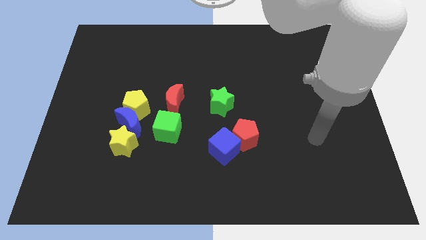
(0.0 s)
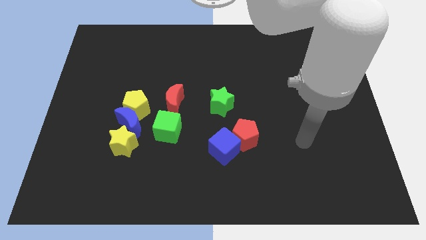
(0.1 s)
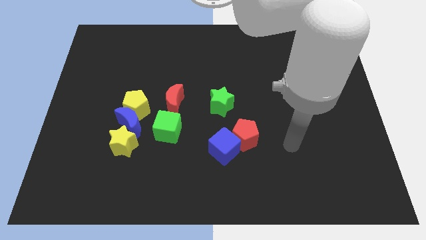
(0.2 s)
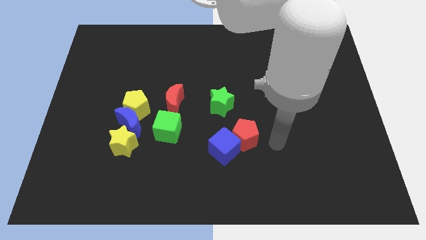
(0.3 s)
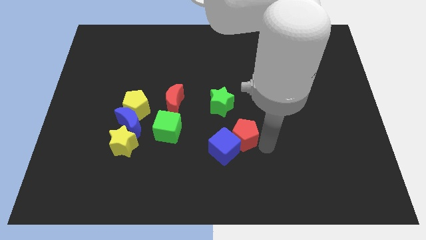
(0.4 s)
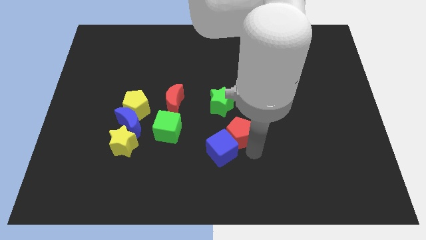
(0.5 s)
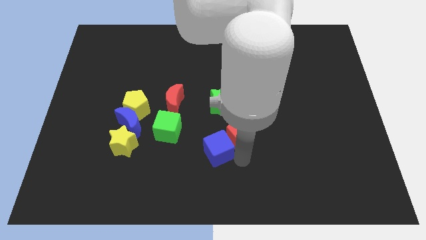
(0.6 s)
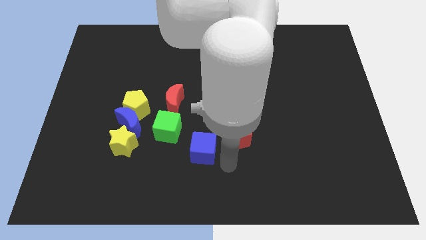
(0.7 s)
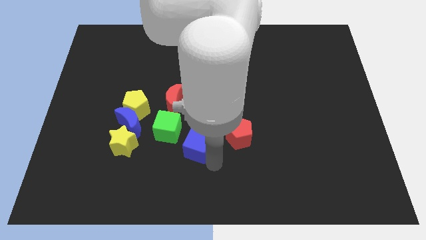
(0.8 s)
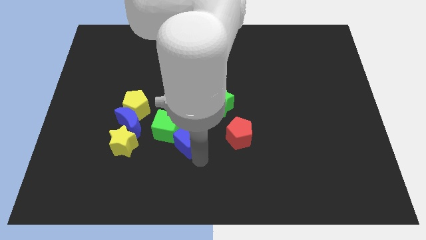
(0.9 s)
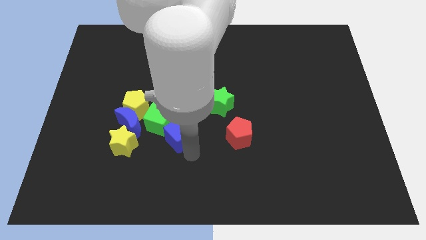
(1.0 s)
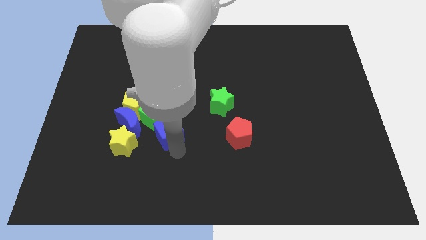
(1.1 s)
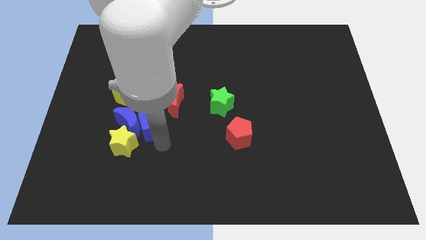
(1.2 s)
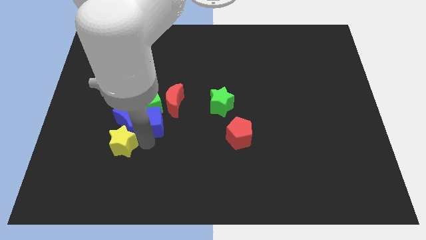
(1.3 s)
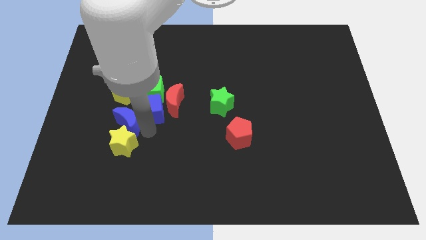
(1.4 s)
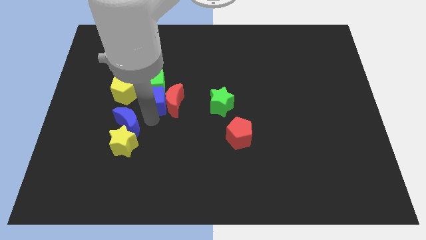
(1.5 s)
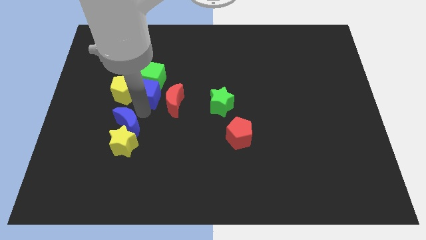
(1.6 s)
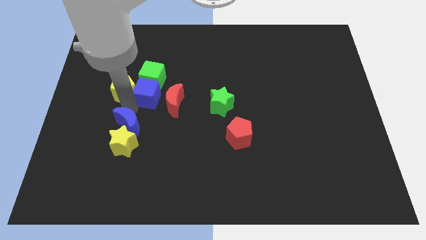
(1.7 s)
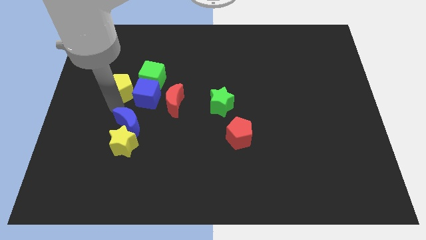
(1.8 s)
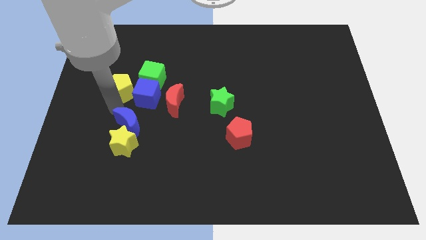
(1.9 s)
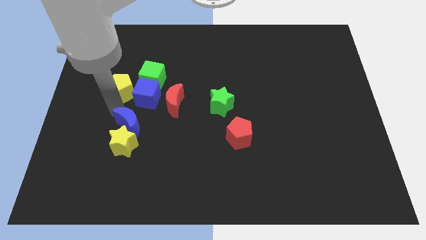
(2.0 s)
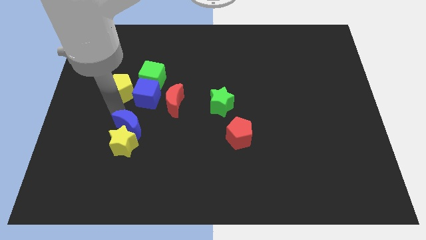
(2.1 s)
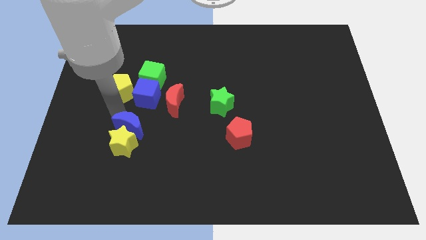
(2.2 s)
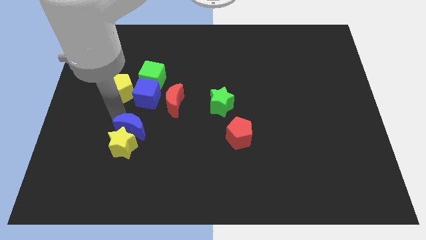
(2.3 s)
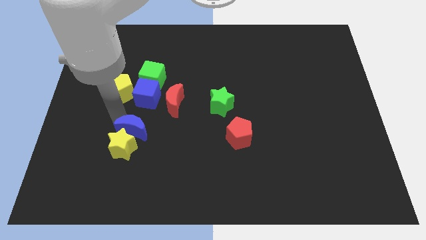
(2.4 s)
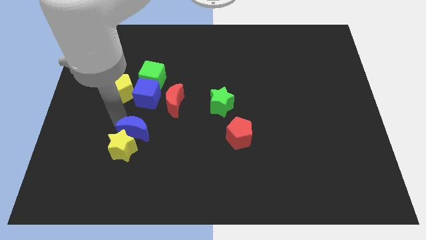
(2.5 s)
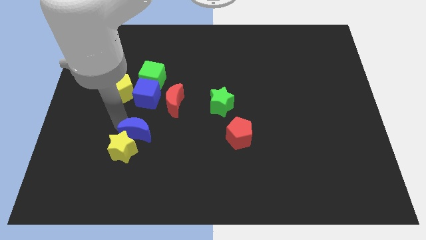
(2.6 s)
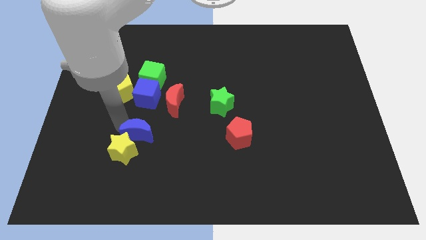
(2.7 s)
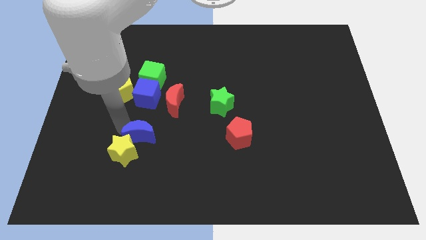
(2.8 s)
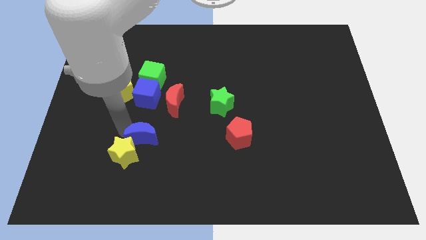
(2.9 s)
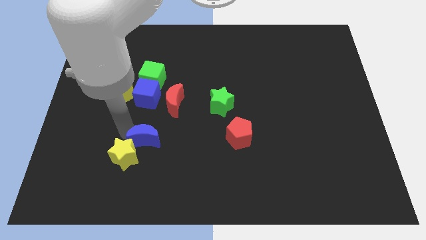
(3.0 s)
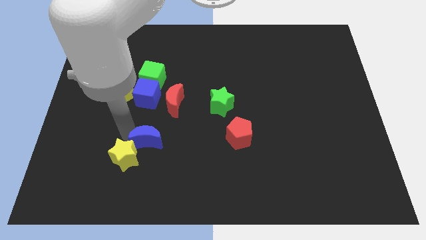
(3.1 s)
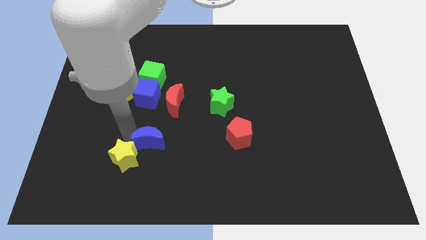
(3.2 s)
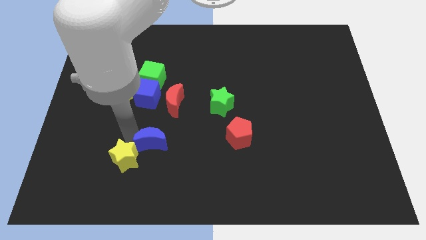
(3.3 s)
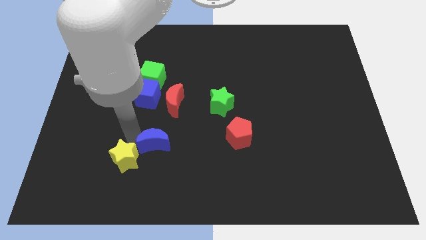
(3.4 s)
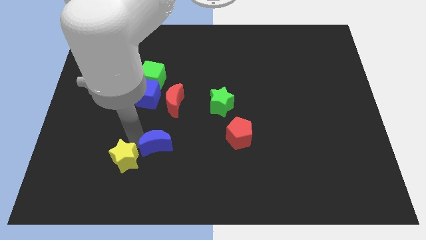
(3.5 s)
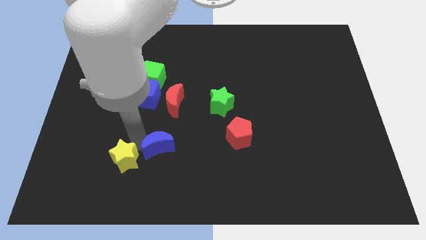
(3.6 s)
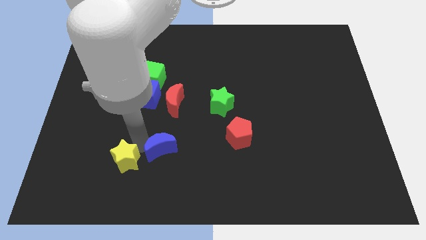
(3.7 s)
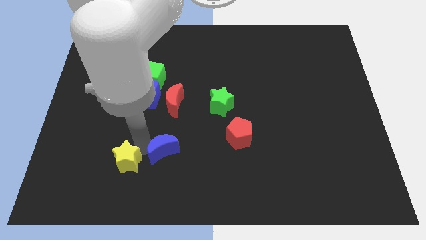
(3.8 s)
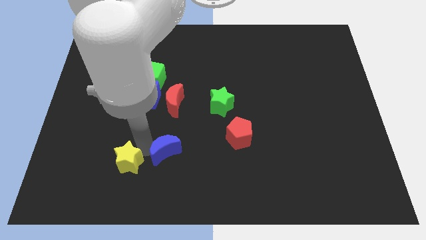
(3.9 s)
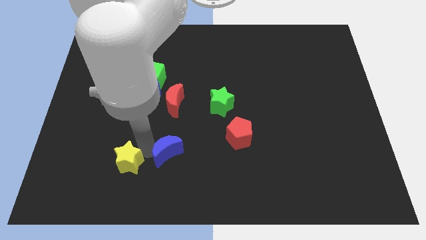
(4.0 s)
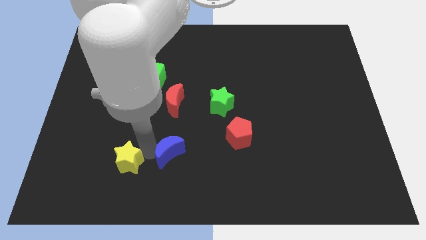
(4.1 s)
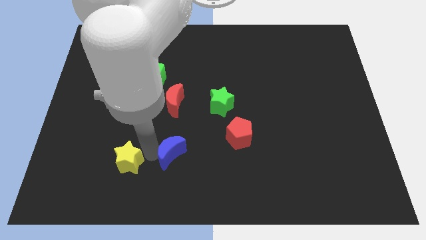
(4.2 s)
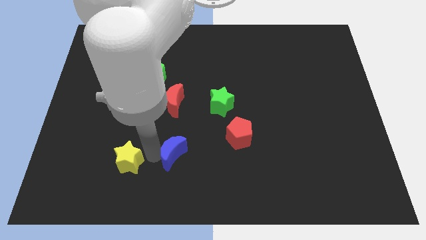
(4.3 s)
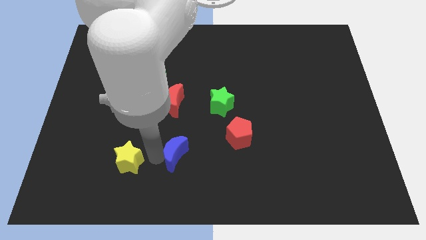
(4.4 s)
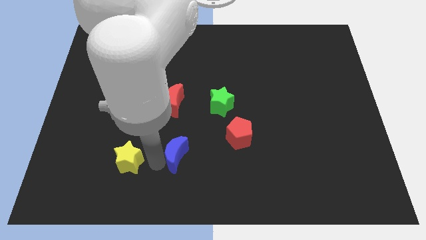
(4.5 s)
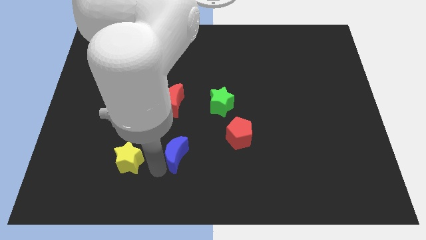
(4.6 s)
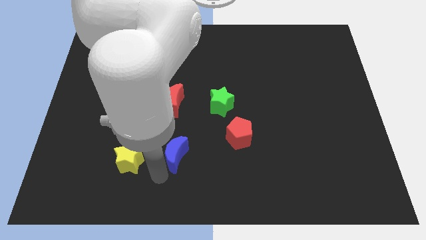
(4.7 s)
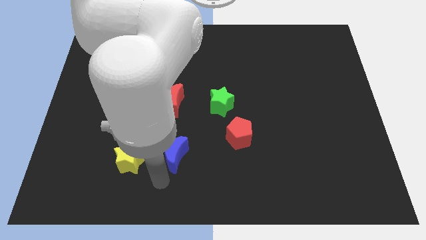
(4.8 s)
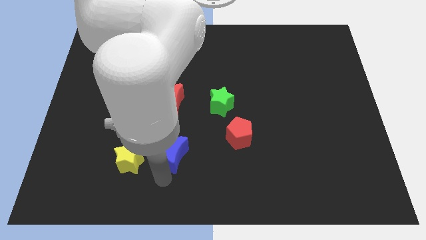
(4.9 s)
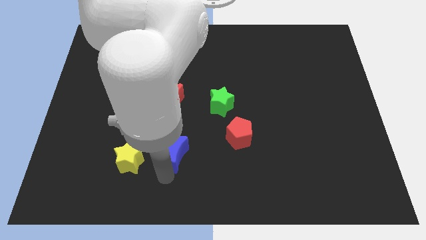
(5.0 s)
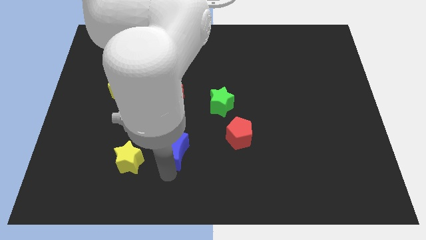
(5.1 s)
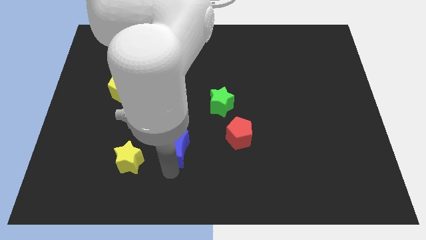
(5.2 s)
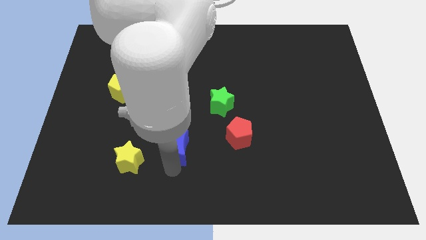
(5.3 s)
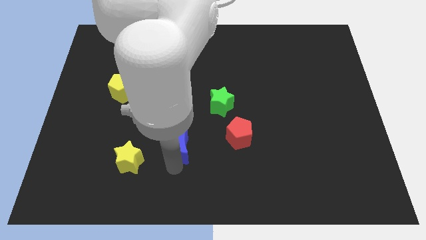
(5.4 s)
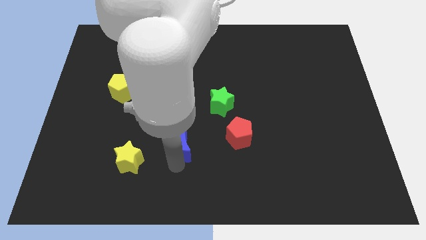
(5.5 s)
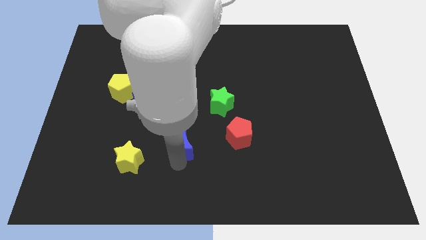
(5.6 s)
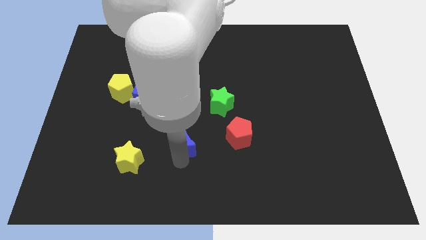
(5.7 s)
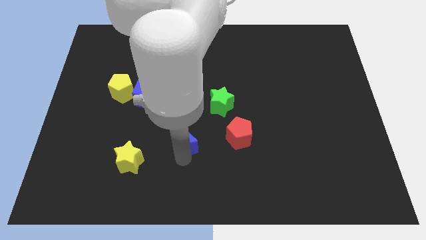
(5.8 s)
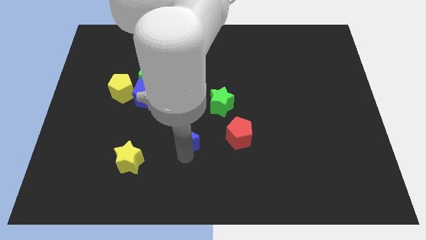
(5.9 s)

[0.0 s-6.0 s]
put the blue moon to the bottom left of the green star

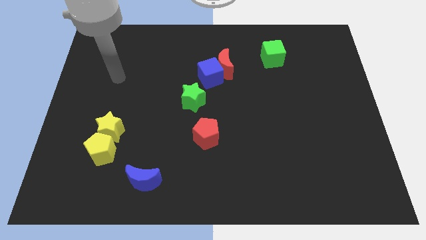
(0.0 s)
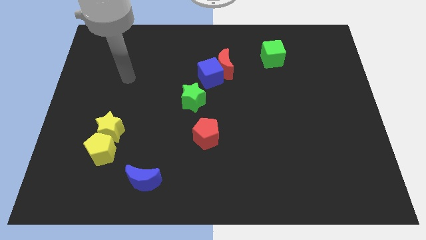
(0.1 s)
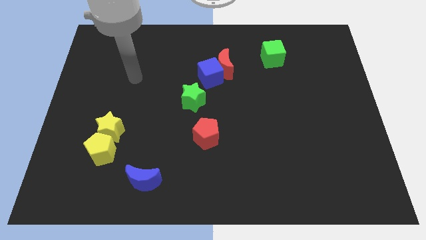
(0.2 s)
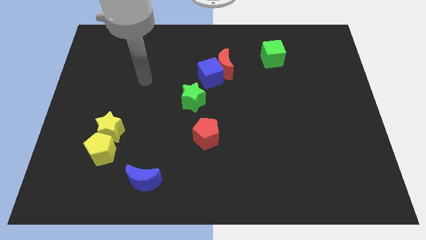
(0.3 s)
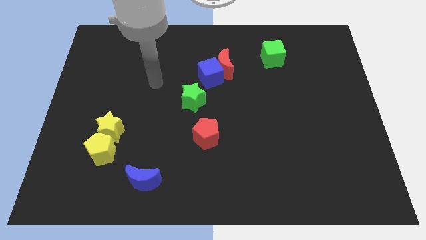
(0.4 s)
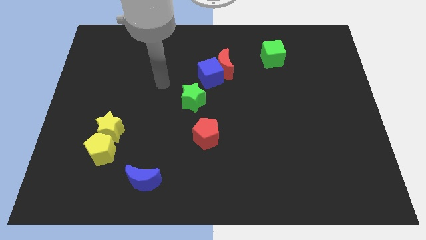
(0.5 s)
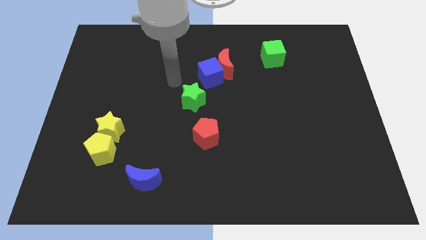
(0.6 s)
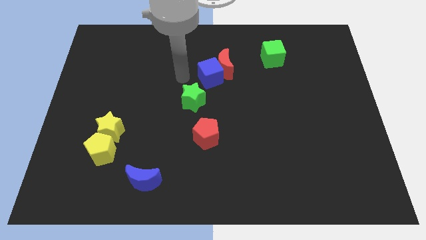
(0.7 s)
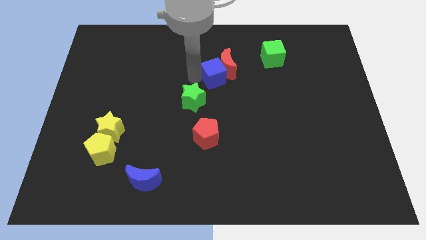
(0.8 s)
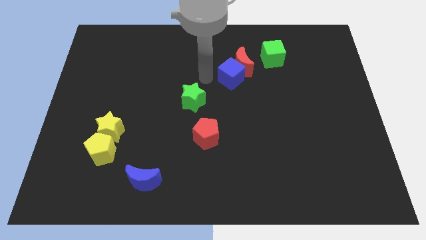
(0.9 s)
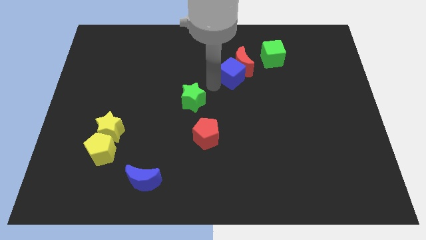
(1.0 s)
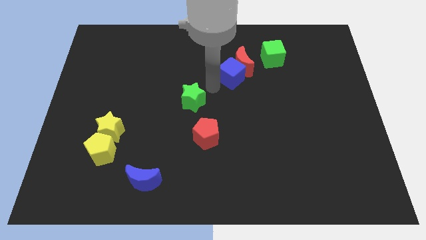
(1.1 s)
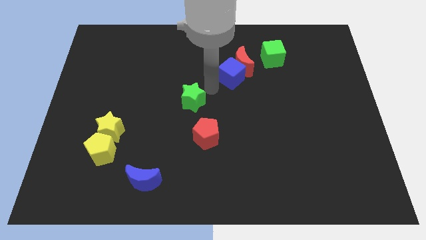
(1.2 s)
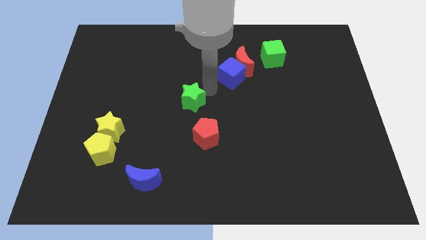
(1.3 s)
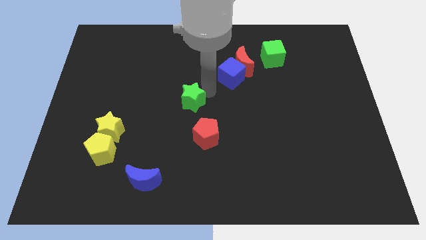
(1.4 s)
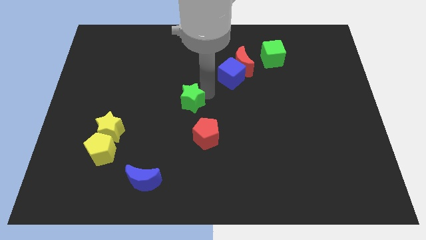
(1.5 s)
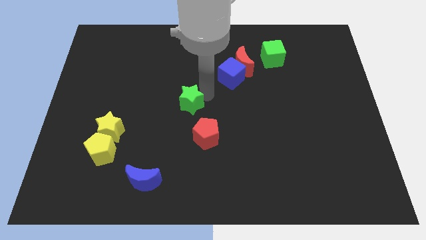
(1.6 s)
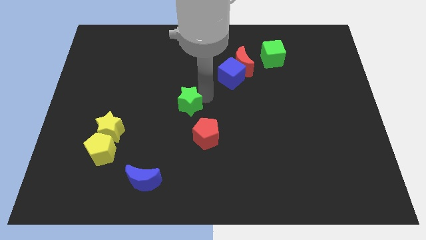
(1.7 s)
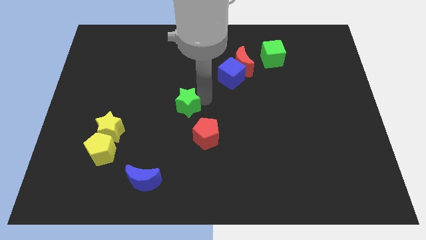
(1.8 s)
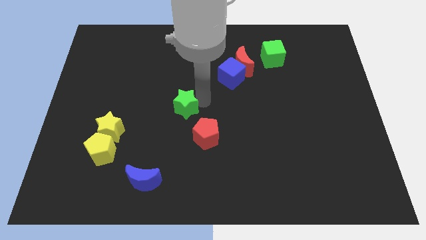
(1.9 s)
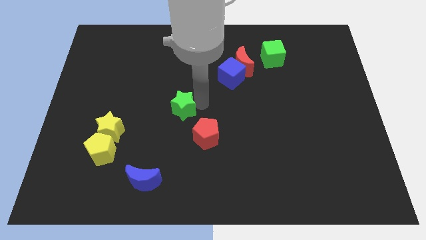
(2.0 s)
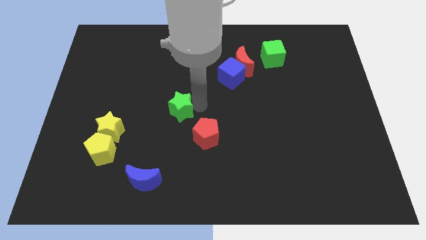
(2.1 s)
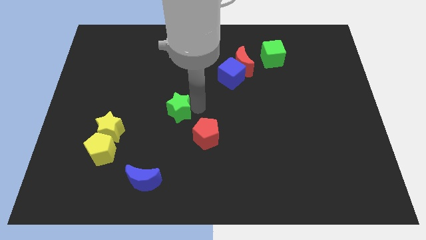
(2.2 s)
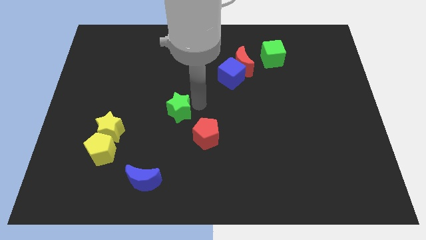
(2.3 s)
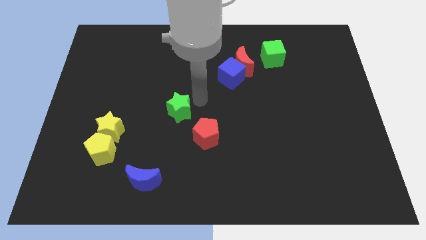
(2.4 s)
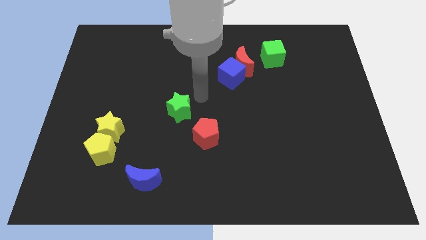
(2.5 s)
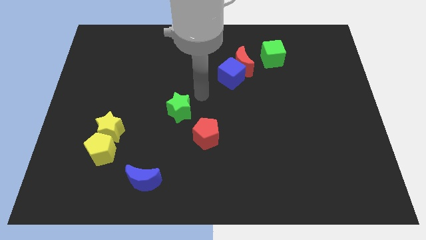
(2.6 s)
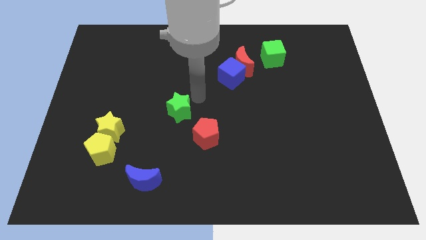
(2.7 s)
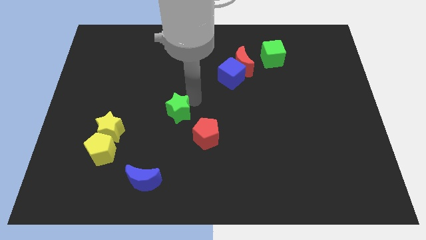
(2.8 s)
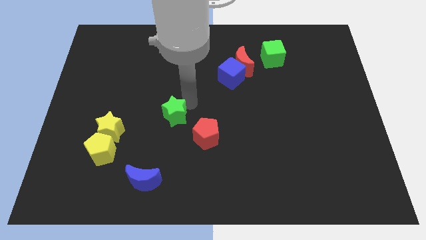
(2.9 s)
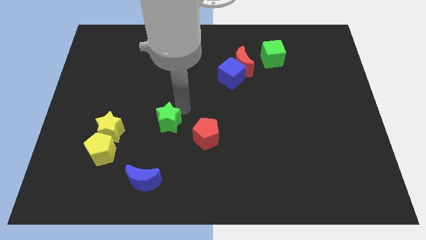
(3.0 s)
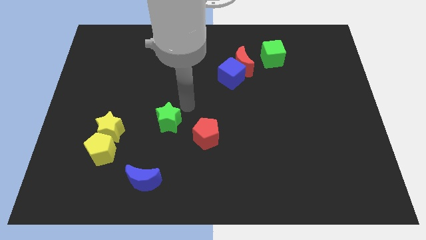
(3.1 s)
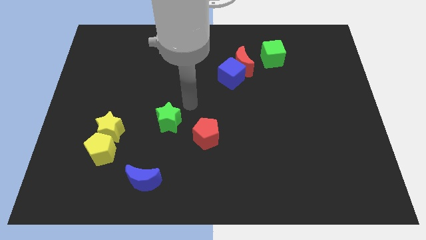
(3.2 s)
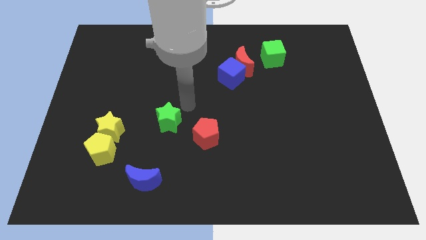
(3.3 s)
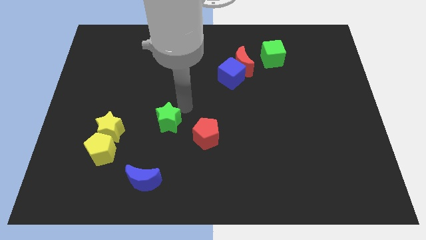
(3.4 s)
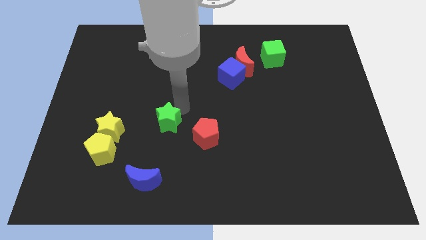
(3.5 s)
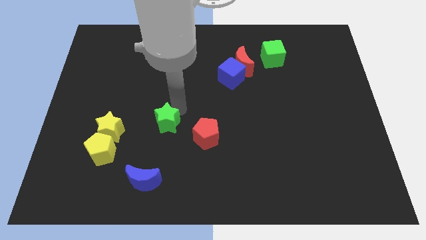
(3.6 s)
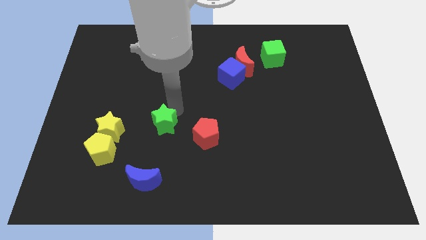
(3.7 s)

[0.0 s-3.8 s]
move the green star to the top of the blue moon
